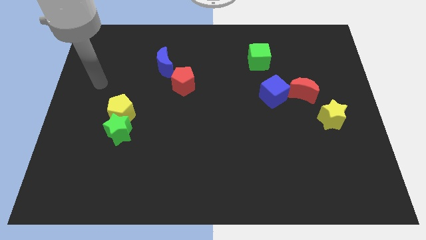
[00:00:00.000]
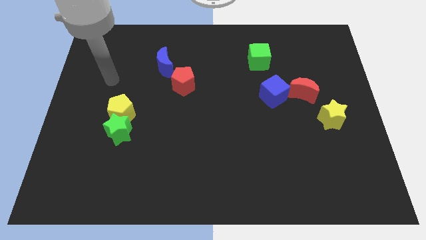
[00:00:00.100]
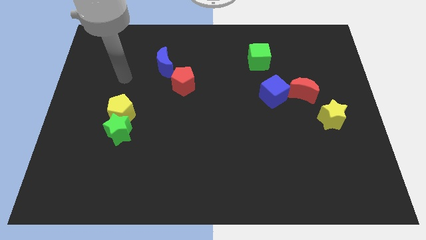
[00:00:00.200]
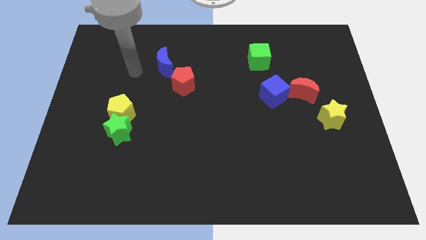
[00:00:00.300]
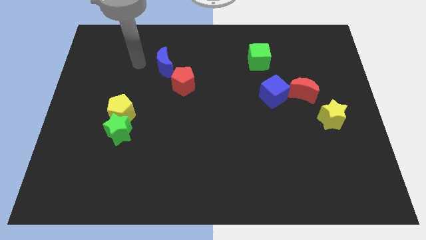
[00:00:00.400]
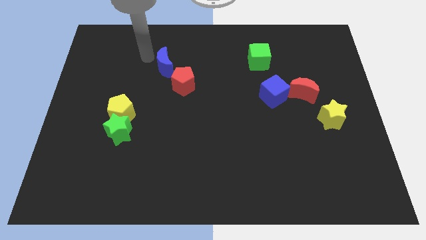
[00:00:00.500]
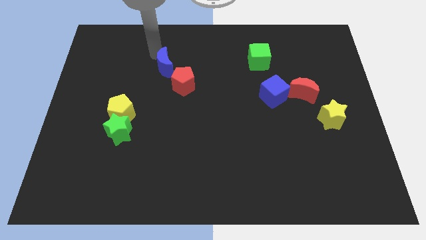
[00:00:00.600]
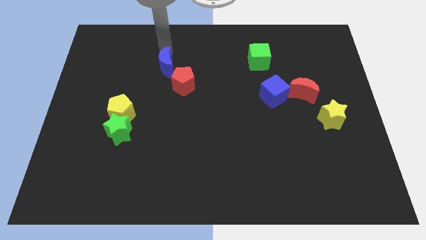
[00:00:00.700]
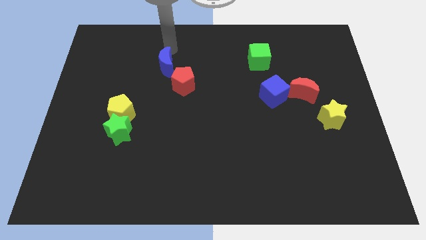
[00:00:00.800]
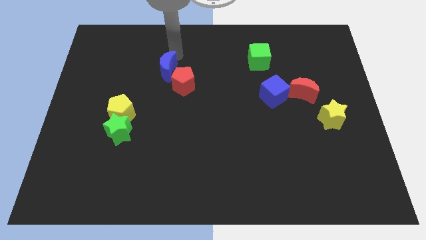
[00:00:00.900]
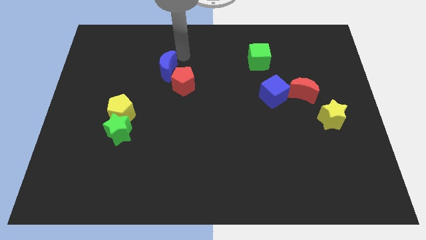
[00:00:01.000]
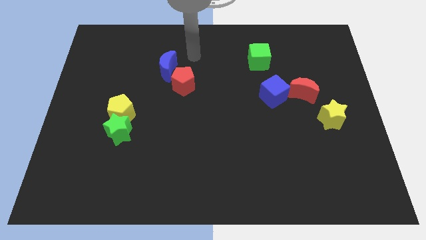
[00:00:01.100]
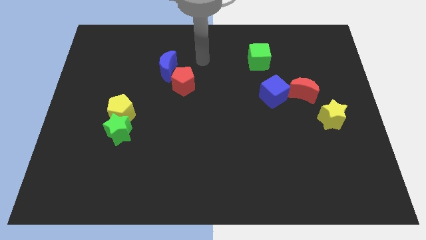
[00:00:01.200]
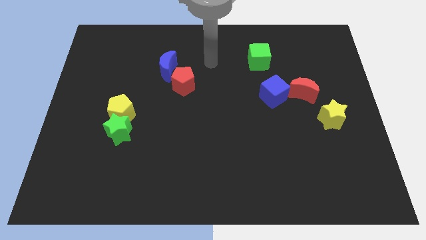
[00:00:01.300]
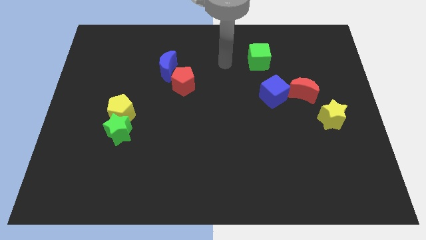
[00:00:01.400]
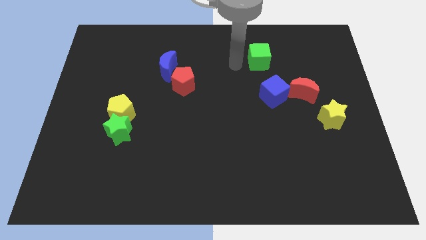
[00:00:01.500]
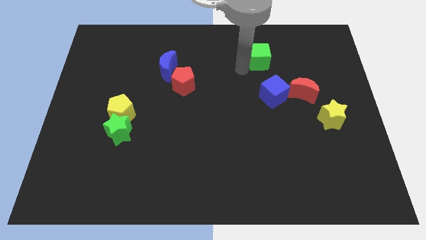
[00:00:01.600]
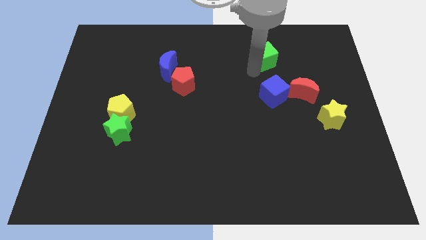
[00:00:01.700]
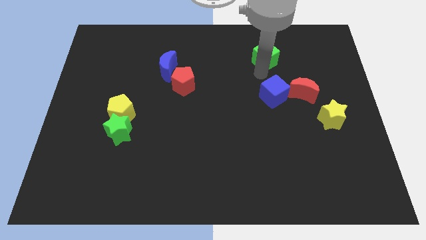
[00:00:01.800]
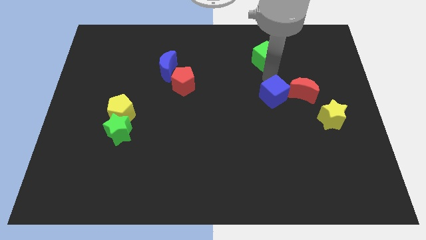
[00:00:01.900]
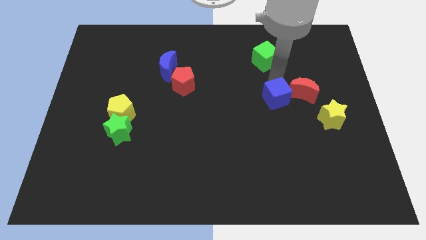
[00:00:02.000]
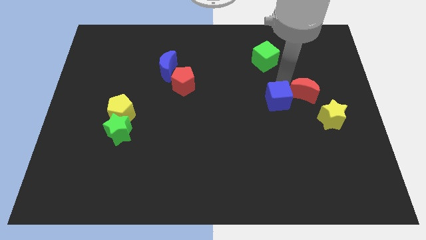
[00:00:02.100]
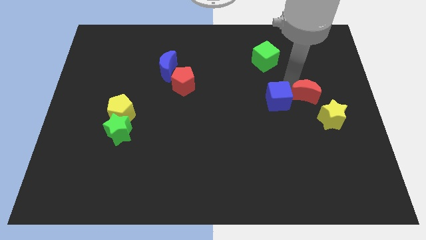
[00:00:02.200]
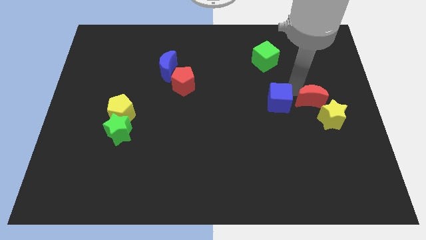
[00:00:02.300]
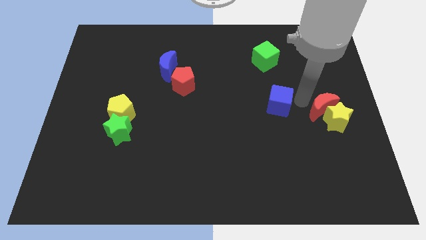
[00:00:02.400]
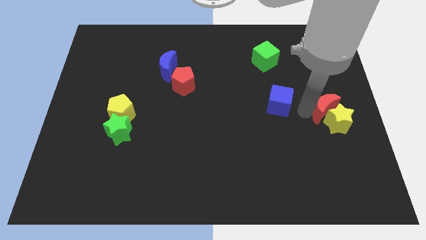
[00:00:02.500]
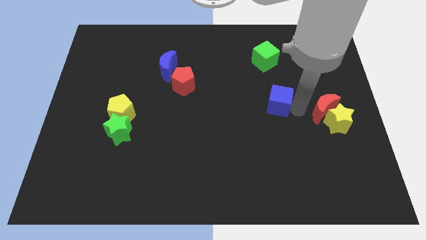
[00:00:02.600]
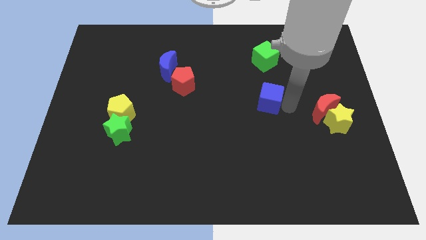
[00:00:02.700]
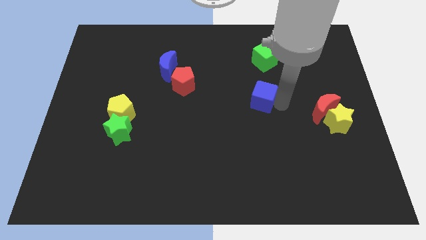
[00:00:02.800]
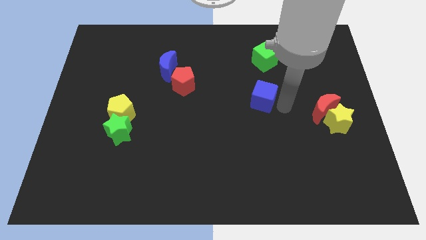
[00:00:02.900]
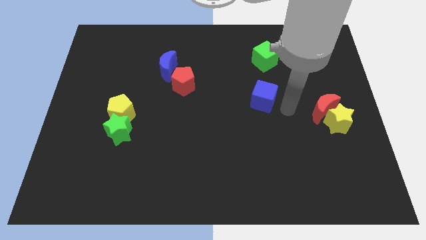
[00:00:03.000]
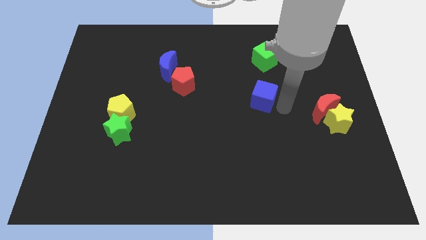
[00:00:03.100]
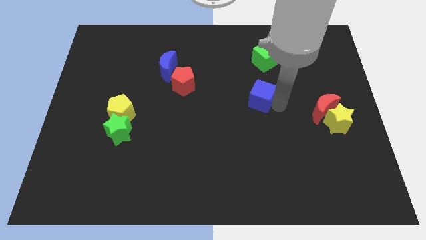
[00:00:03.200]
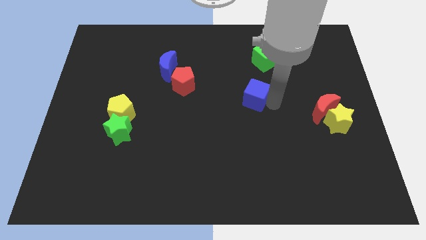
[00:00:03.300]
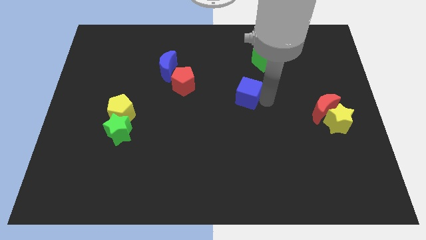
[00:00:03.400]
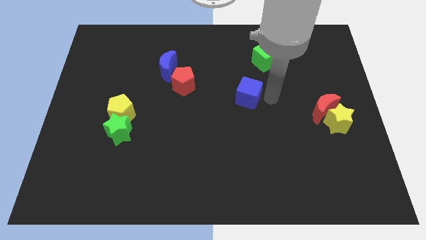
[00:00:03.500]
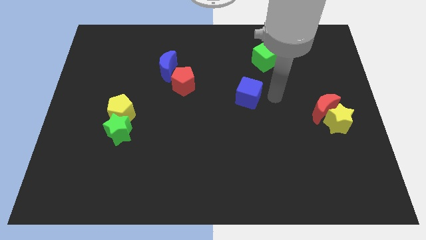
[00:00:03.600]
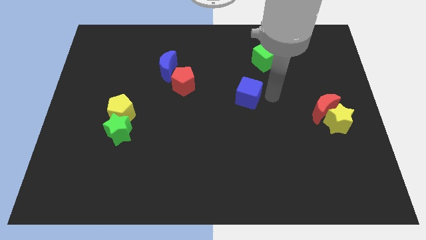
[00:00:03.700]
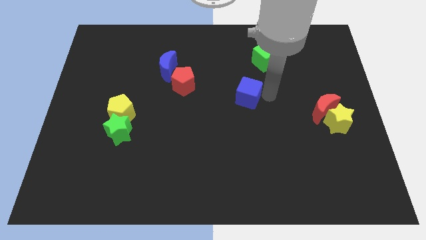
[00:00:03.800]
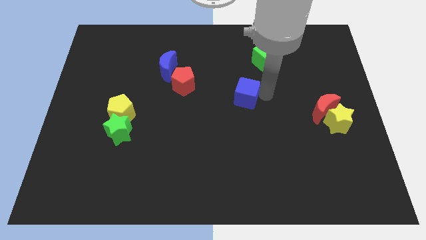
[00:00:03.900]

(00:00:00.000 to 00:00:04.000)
slightly move the blue cube left

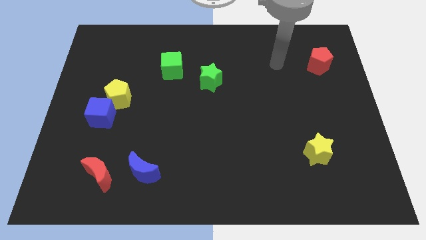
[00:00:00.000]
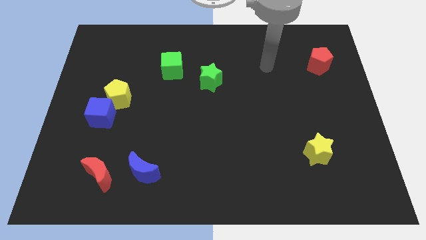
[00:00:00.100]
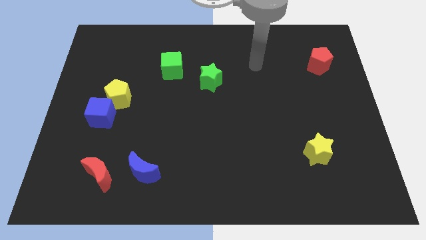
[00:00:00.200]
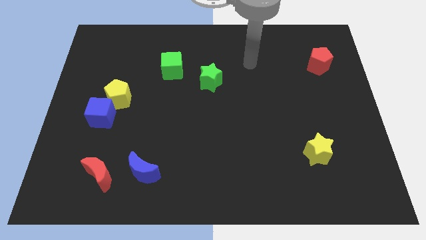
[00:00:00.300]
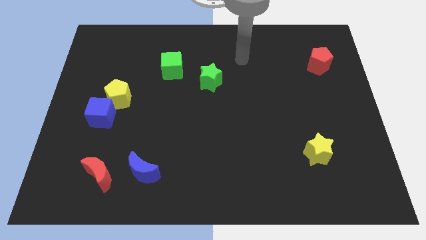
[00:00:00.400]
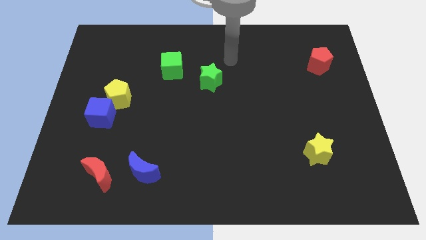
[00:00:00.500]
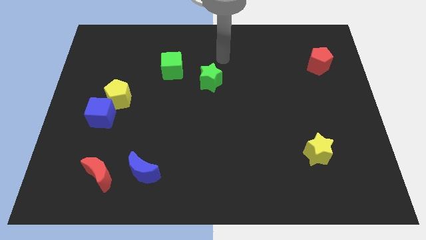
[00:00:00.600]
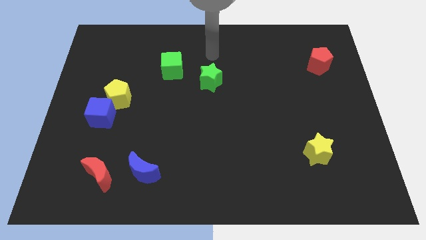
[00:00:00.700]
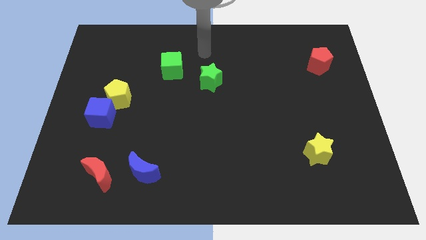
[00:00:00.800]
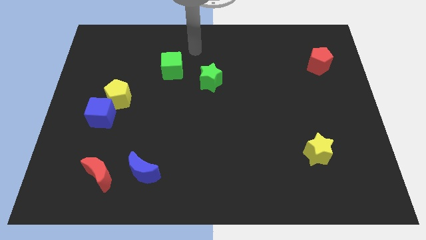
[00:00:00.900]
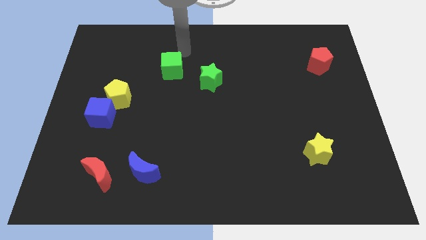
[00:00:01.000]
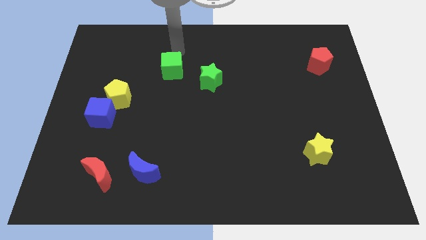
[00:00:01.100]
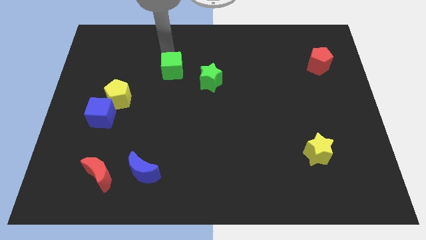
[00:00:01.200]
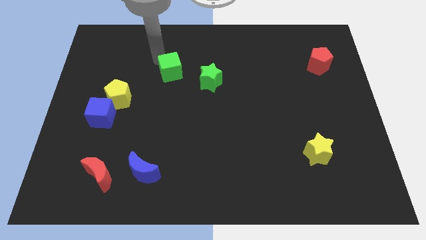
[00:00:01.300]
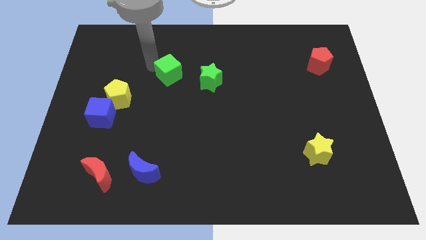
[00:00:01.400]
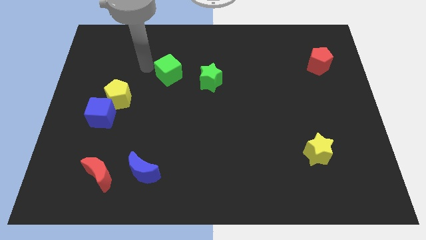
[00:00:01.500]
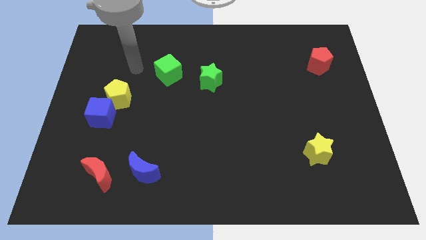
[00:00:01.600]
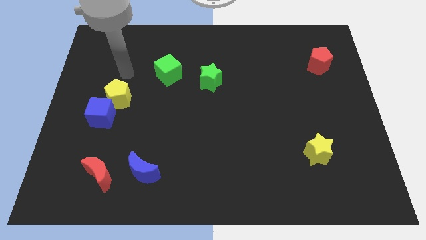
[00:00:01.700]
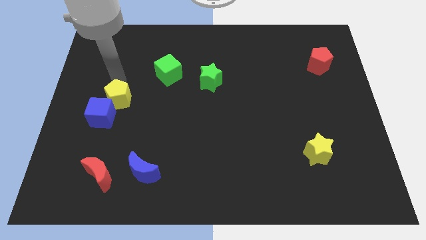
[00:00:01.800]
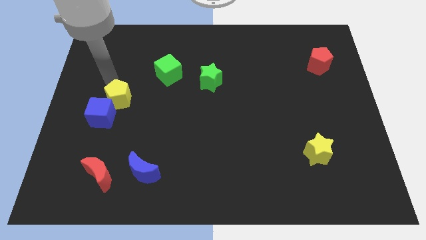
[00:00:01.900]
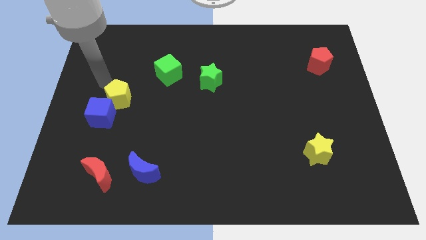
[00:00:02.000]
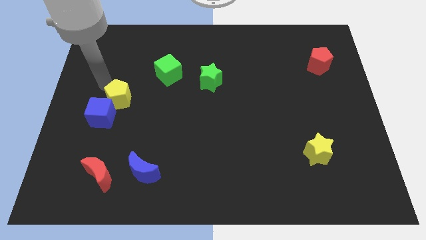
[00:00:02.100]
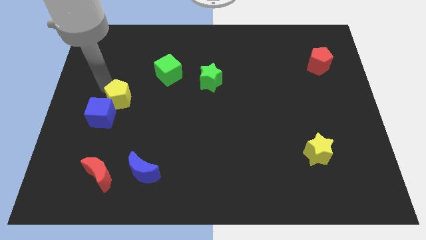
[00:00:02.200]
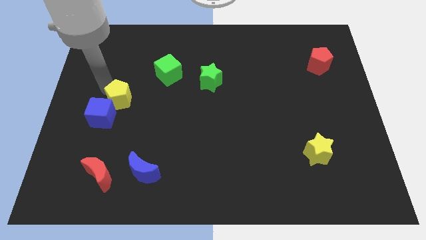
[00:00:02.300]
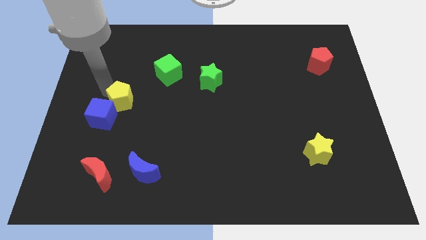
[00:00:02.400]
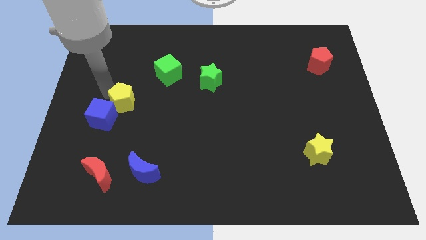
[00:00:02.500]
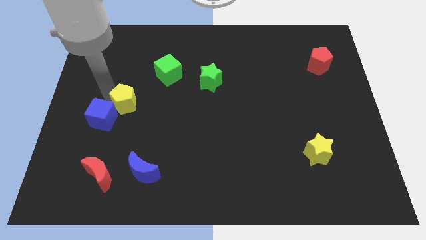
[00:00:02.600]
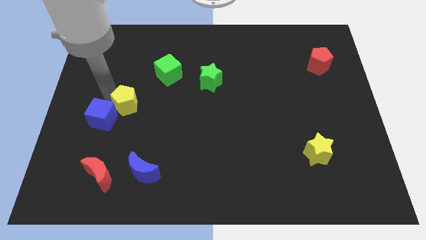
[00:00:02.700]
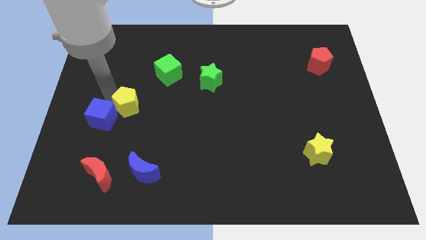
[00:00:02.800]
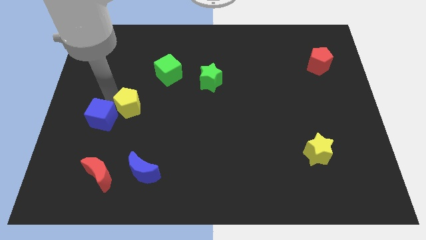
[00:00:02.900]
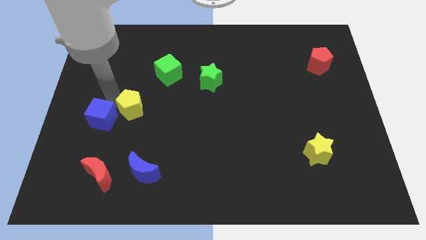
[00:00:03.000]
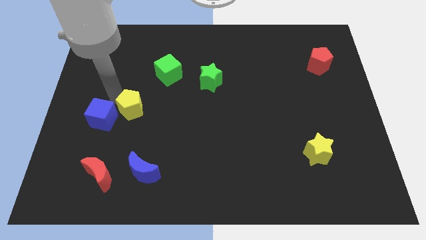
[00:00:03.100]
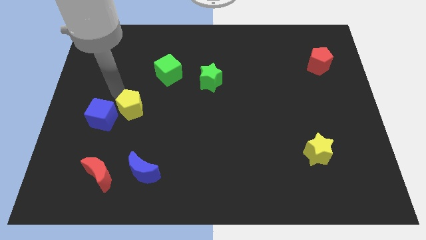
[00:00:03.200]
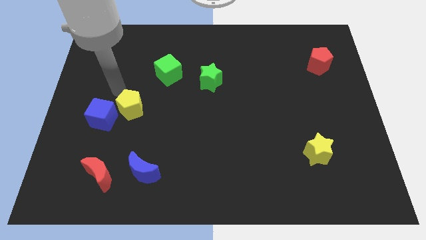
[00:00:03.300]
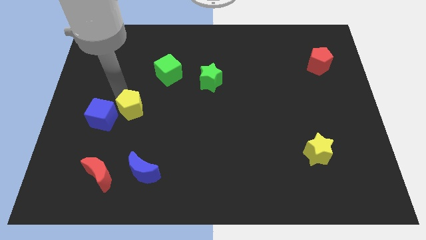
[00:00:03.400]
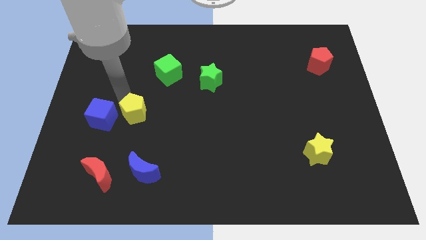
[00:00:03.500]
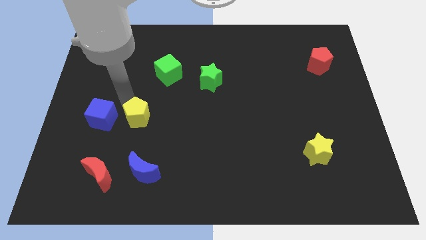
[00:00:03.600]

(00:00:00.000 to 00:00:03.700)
slightly move the yellow pentagon downwards and then right
